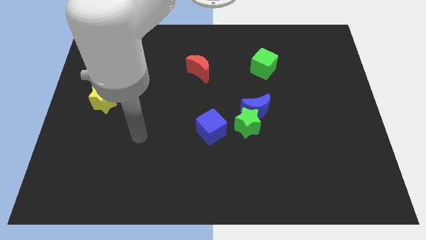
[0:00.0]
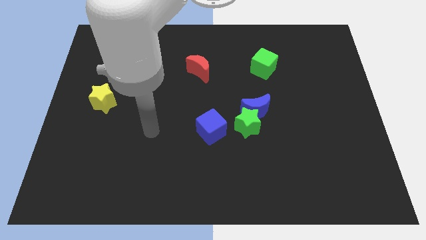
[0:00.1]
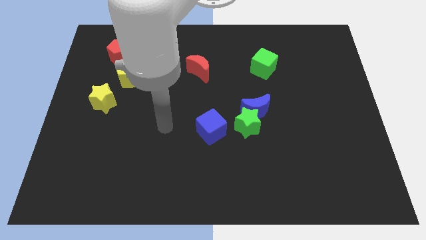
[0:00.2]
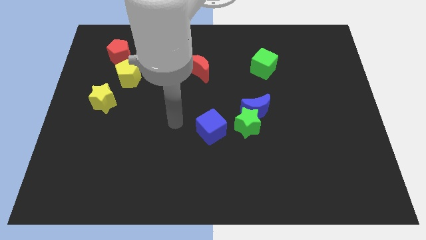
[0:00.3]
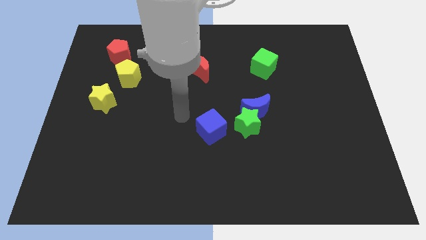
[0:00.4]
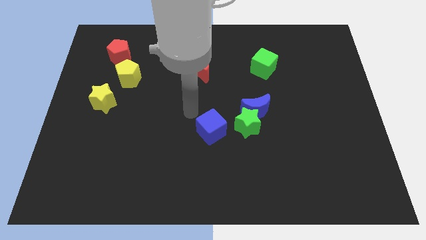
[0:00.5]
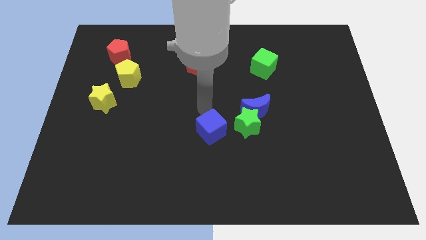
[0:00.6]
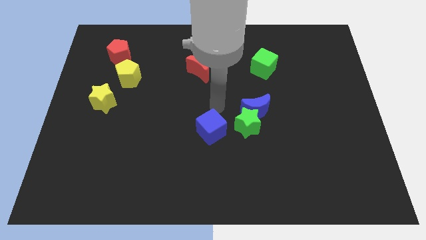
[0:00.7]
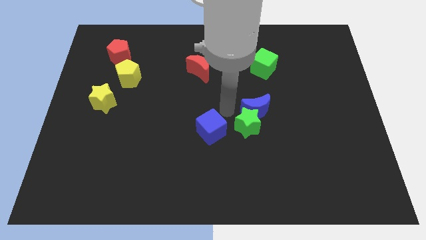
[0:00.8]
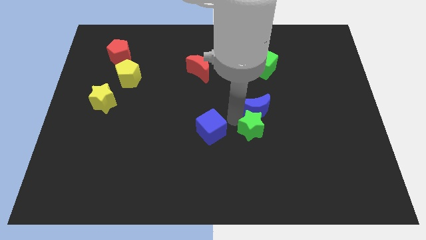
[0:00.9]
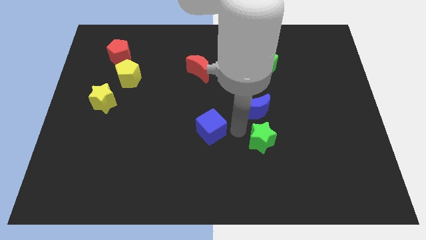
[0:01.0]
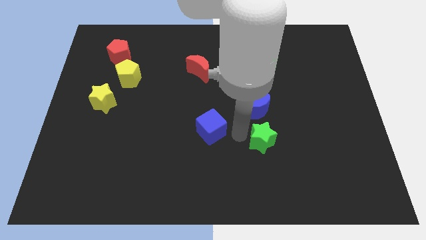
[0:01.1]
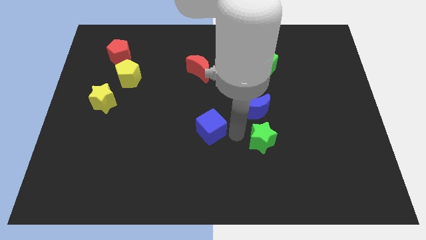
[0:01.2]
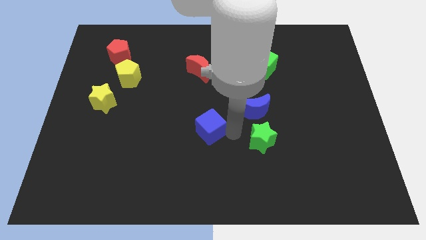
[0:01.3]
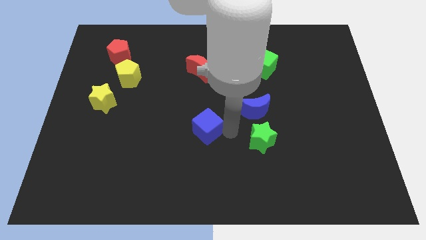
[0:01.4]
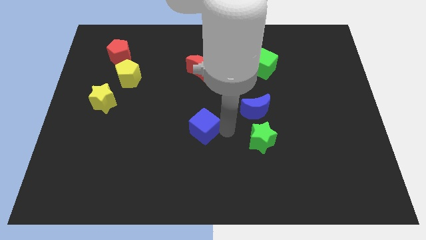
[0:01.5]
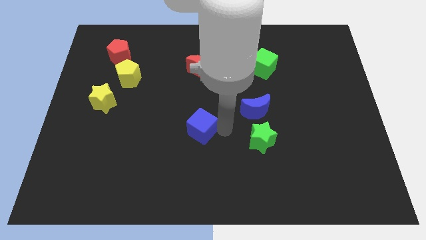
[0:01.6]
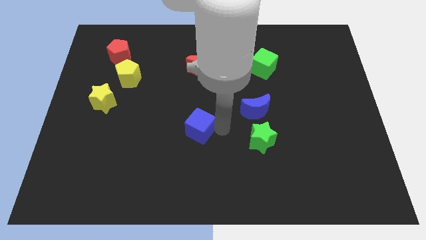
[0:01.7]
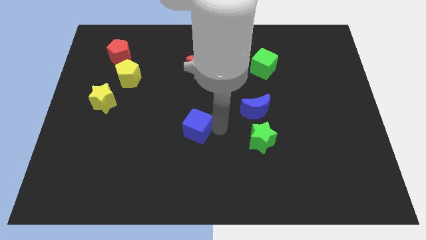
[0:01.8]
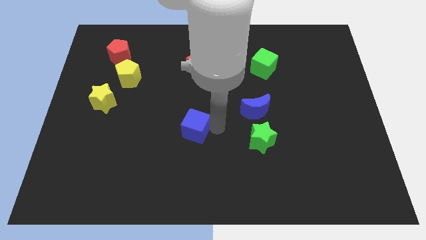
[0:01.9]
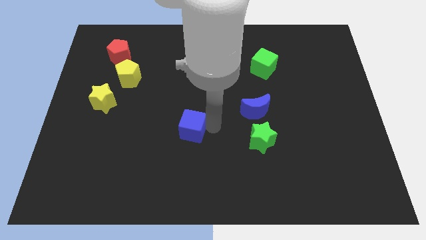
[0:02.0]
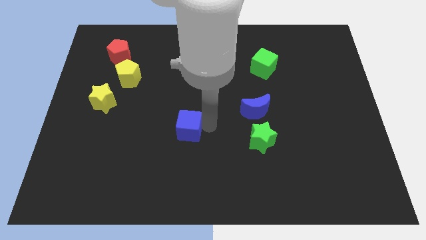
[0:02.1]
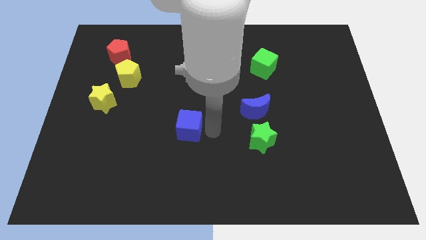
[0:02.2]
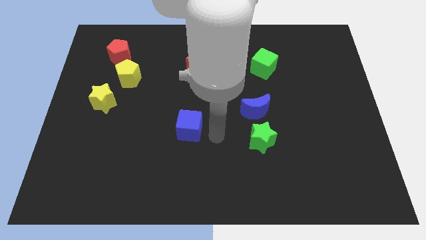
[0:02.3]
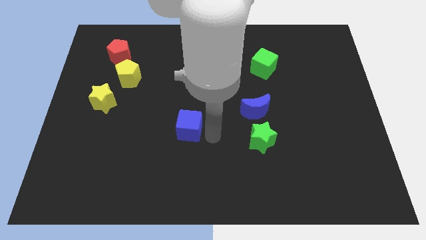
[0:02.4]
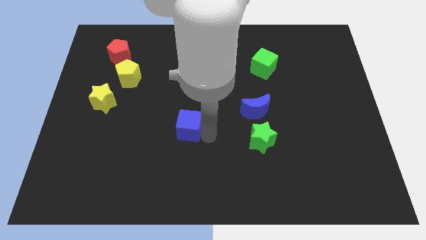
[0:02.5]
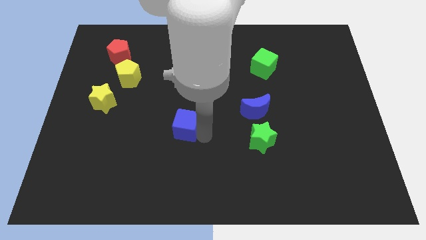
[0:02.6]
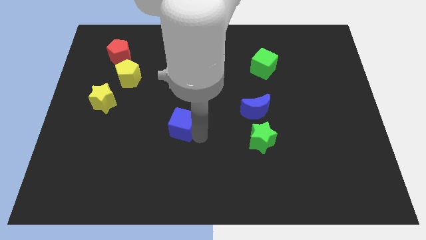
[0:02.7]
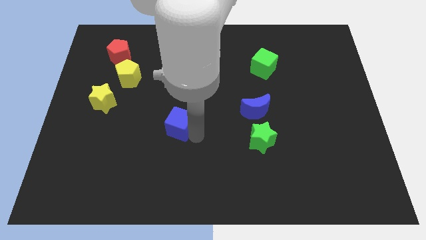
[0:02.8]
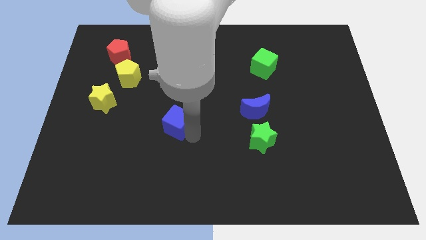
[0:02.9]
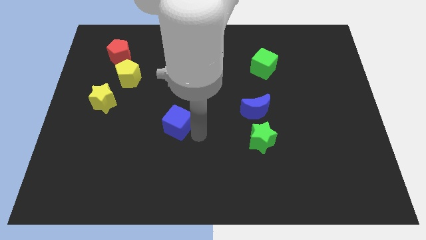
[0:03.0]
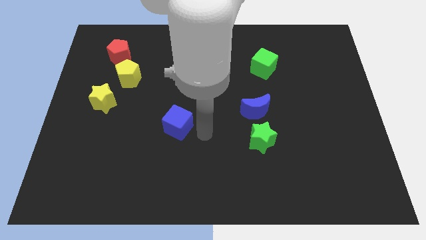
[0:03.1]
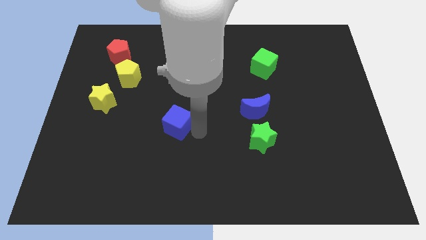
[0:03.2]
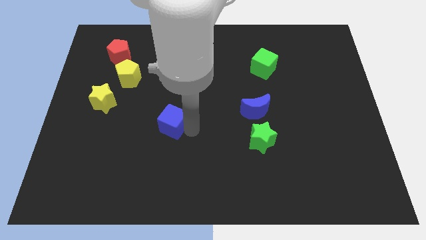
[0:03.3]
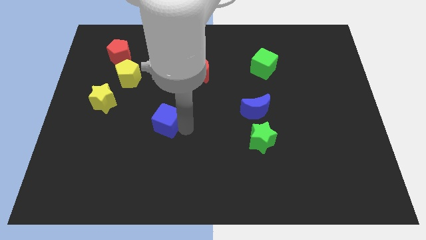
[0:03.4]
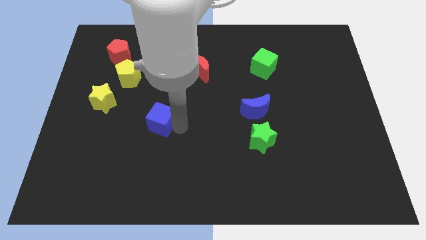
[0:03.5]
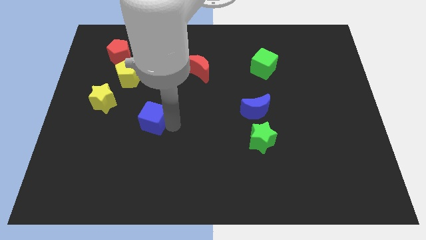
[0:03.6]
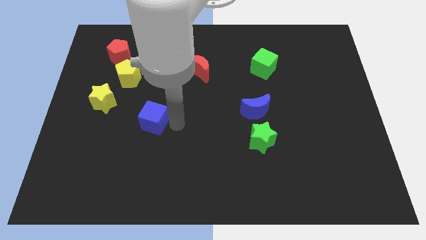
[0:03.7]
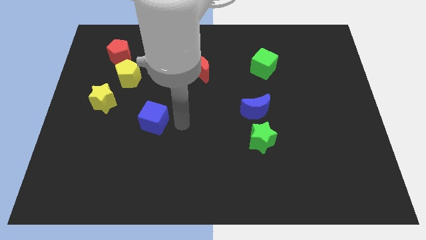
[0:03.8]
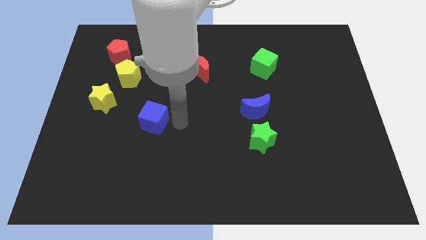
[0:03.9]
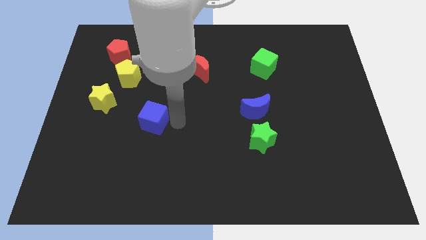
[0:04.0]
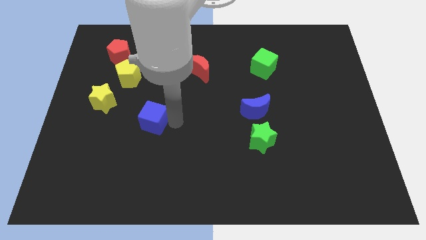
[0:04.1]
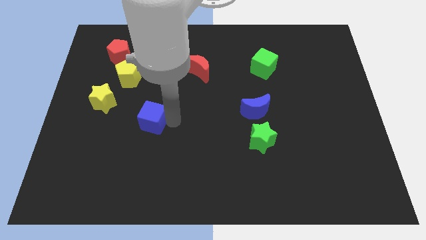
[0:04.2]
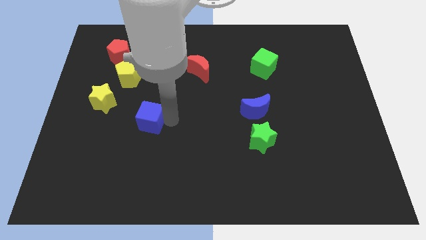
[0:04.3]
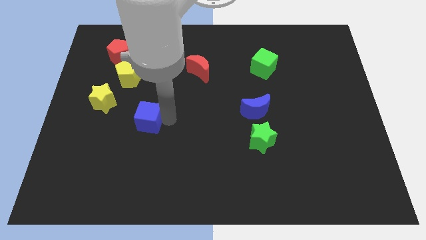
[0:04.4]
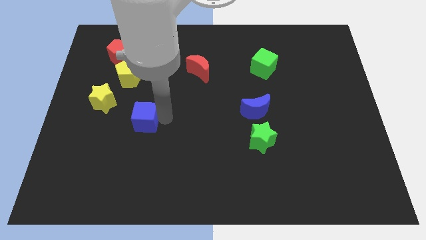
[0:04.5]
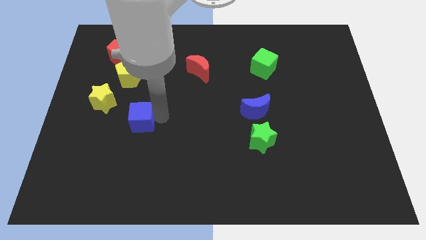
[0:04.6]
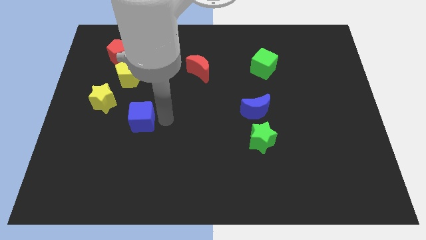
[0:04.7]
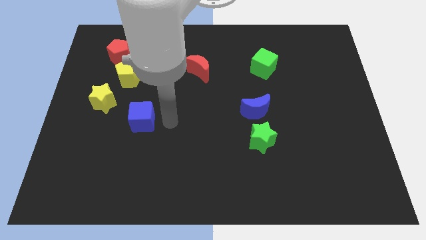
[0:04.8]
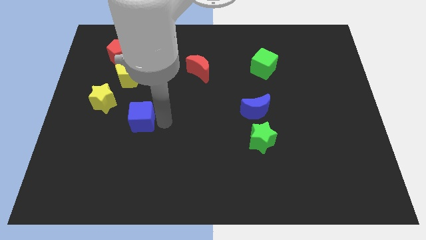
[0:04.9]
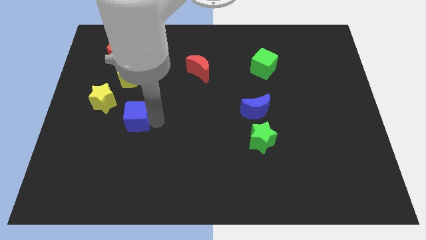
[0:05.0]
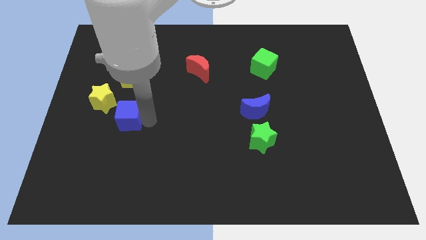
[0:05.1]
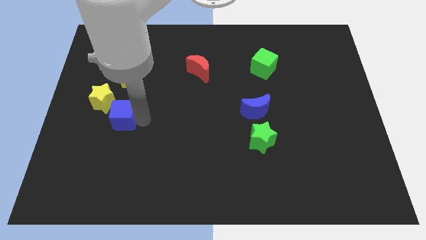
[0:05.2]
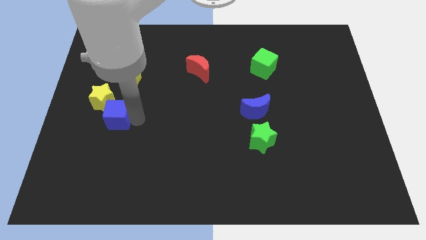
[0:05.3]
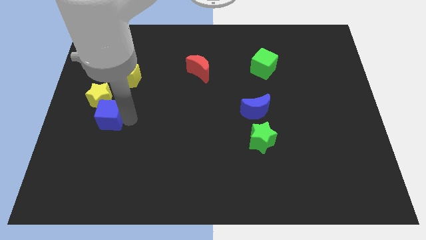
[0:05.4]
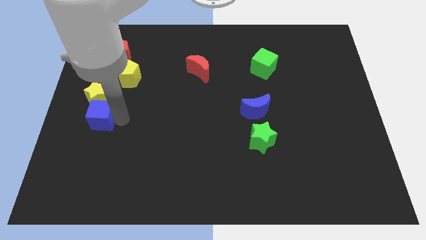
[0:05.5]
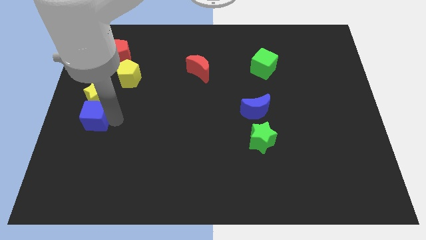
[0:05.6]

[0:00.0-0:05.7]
move the blue cube to the left side
